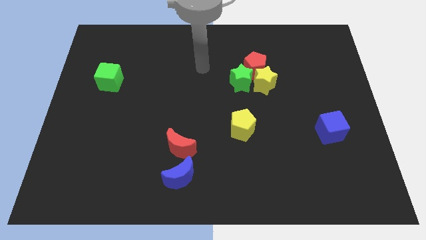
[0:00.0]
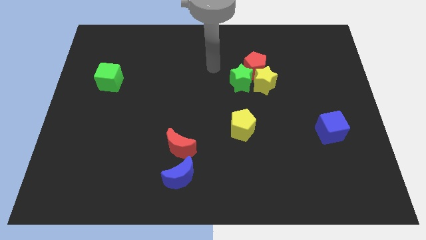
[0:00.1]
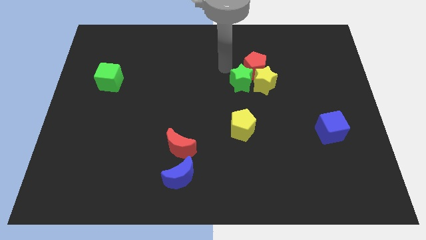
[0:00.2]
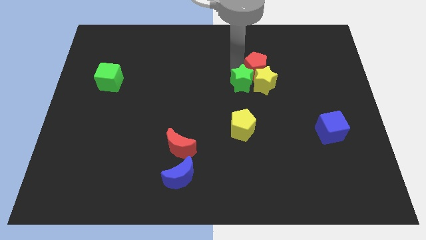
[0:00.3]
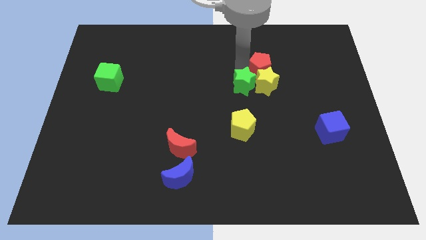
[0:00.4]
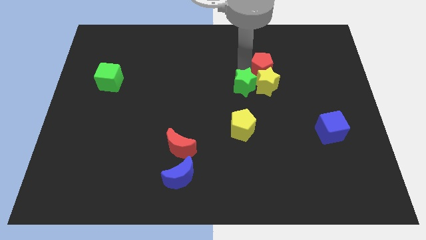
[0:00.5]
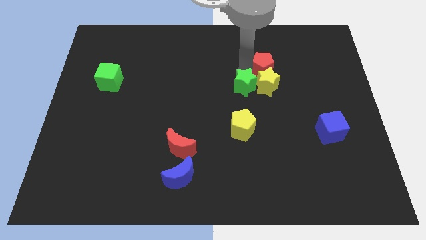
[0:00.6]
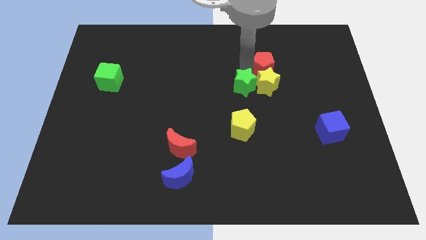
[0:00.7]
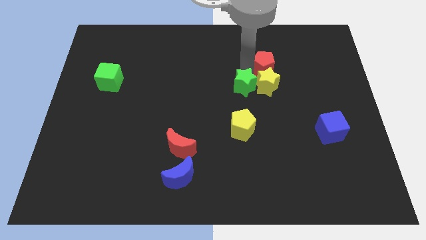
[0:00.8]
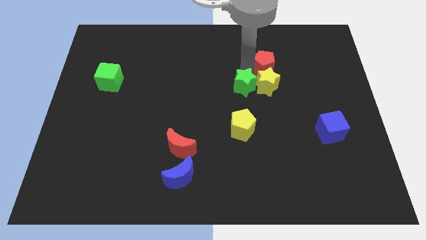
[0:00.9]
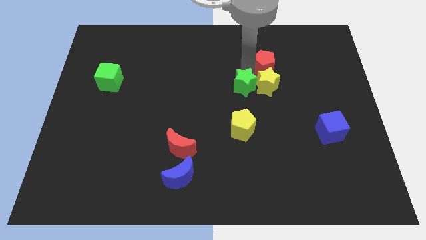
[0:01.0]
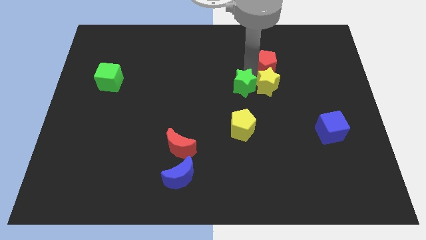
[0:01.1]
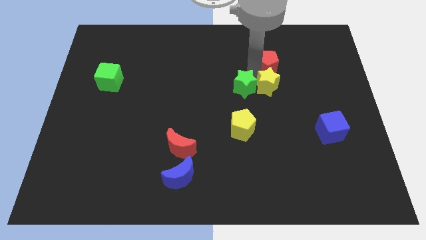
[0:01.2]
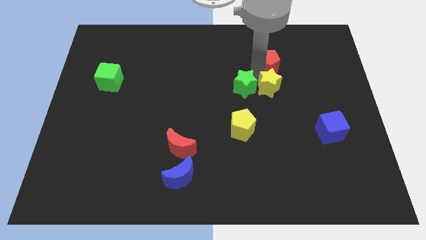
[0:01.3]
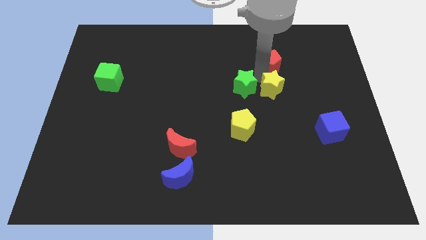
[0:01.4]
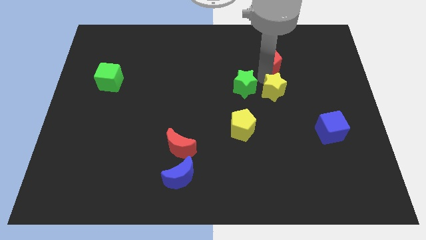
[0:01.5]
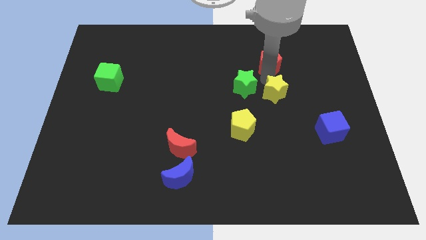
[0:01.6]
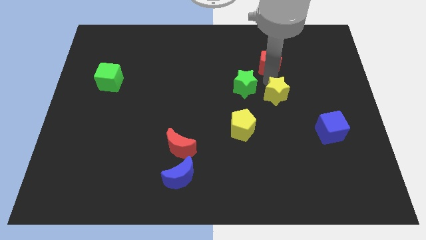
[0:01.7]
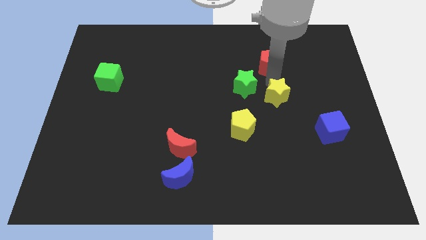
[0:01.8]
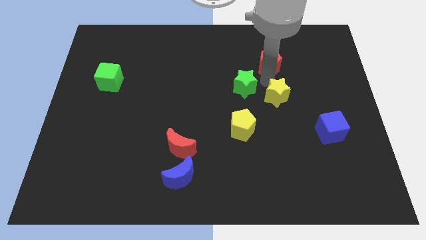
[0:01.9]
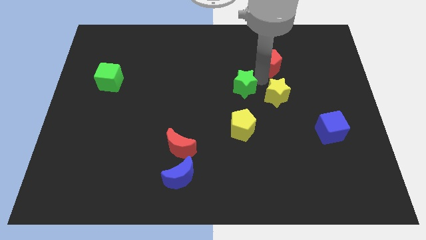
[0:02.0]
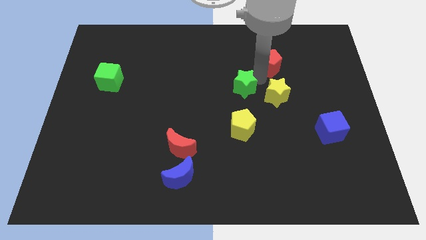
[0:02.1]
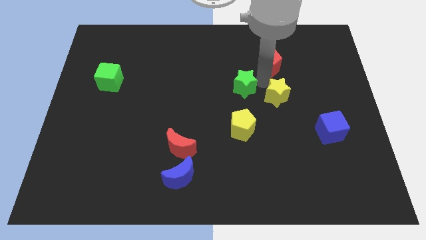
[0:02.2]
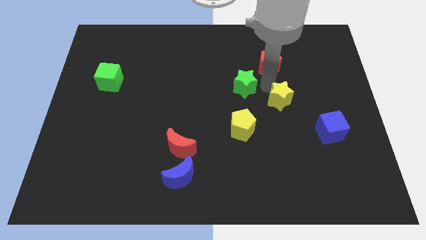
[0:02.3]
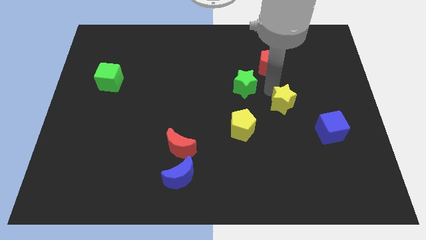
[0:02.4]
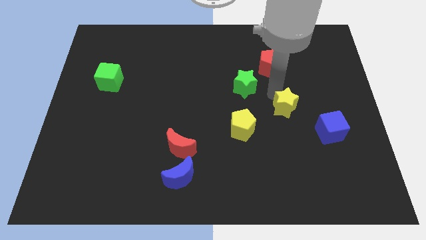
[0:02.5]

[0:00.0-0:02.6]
pull the yellow star apart from the green star and red pentagon

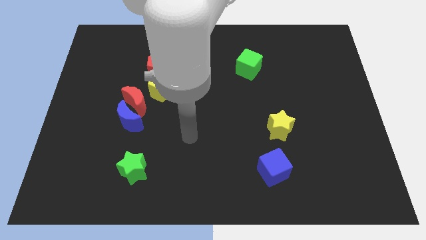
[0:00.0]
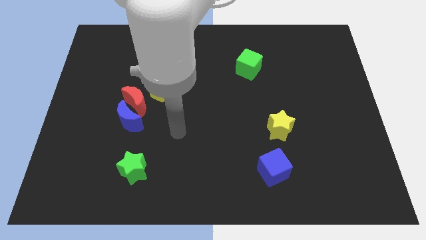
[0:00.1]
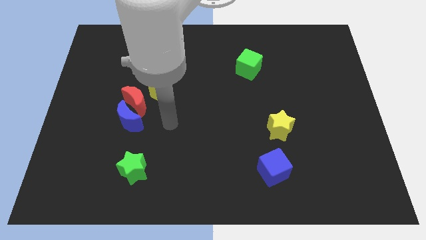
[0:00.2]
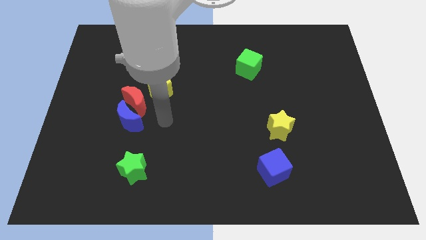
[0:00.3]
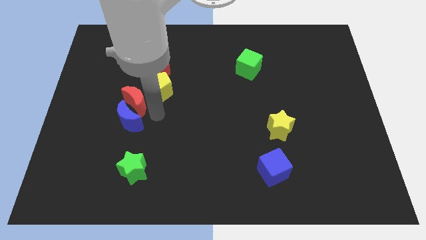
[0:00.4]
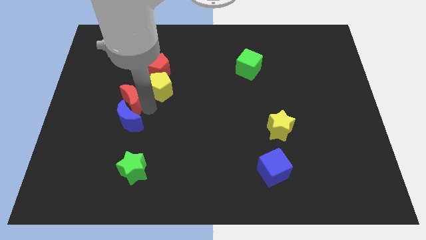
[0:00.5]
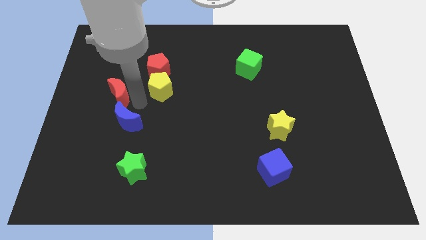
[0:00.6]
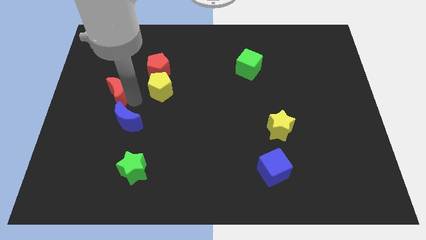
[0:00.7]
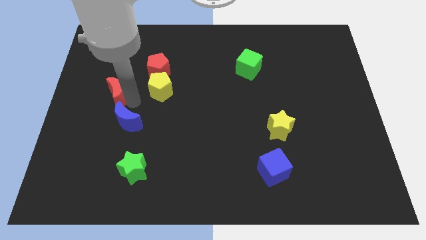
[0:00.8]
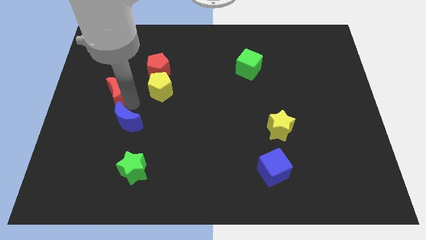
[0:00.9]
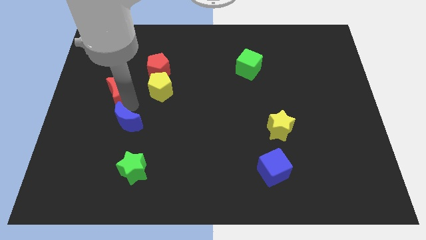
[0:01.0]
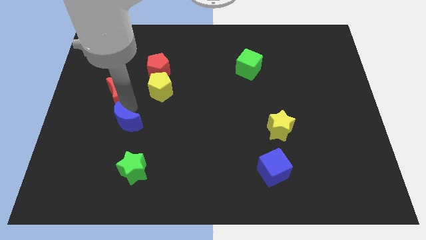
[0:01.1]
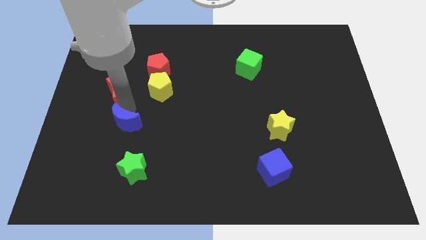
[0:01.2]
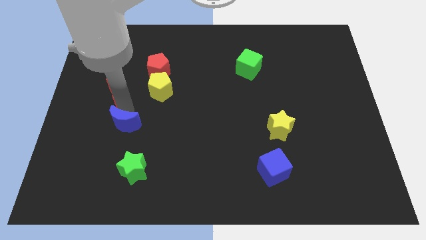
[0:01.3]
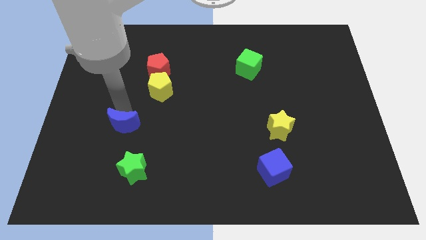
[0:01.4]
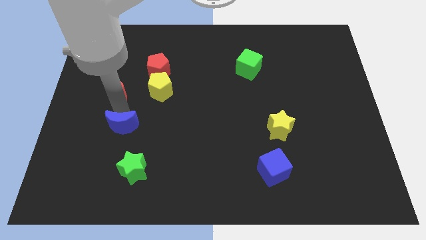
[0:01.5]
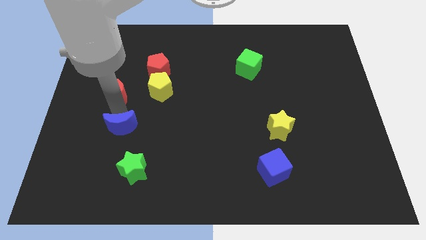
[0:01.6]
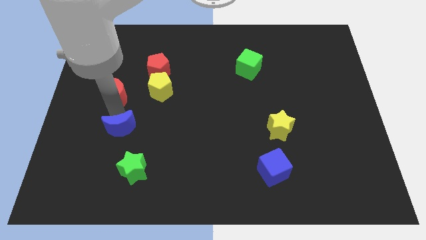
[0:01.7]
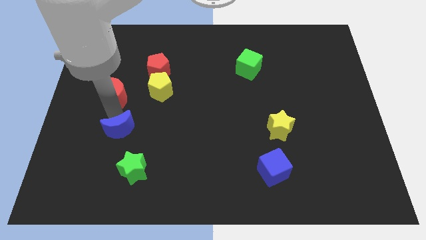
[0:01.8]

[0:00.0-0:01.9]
pull the blue moon apart from the red moon

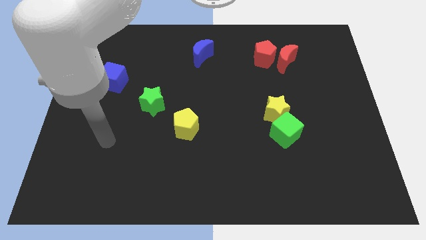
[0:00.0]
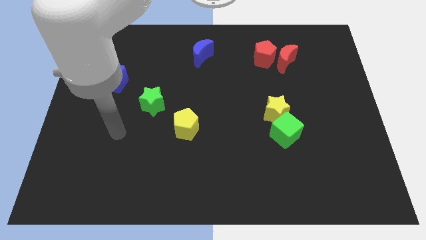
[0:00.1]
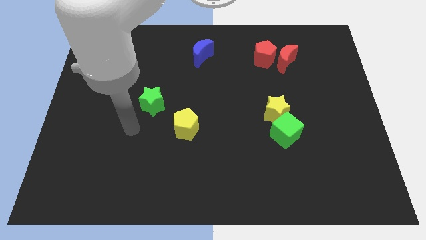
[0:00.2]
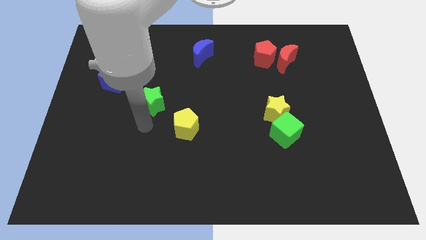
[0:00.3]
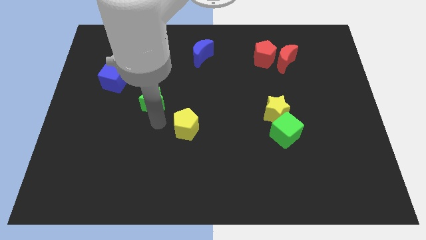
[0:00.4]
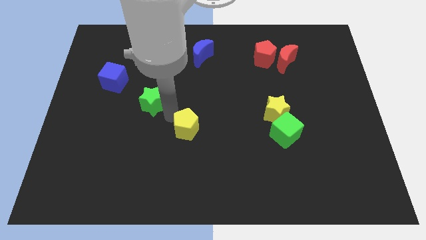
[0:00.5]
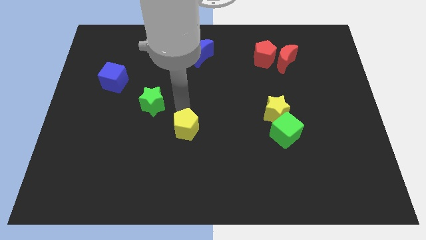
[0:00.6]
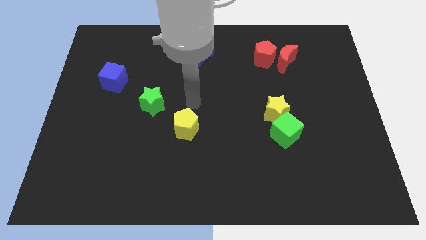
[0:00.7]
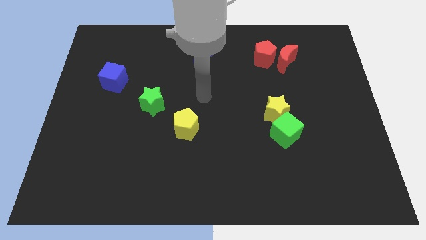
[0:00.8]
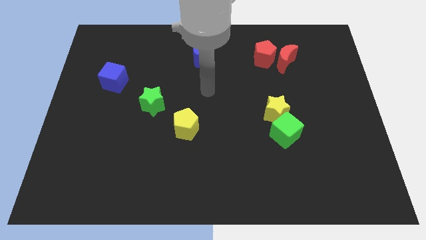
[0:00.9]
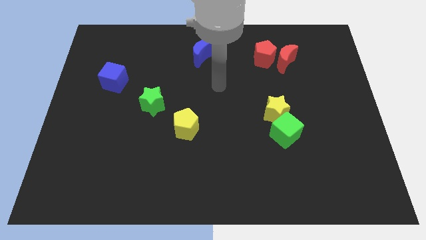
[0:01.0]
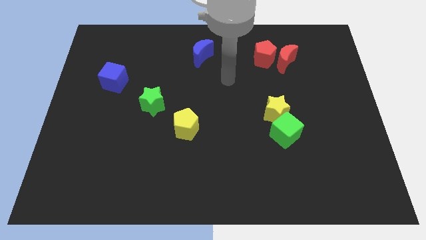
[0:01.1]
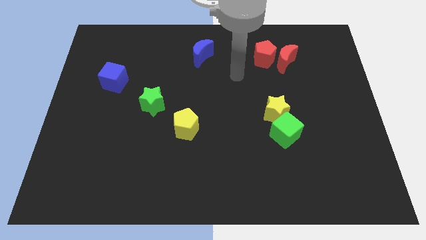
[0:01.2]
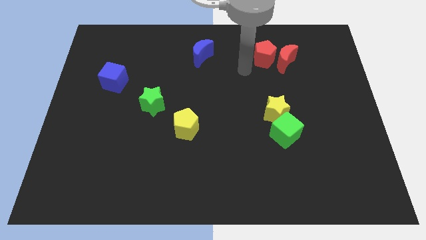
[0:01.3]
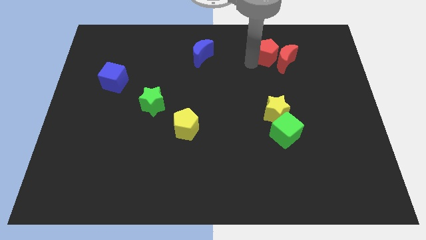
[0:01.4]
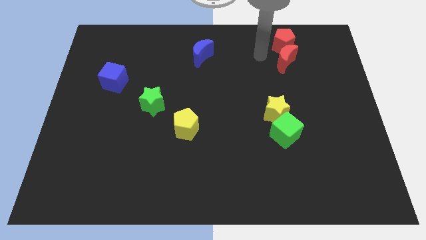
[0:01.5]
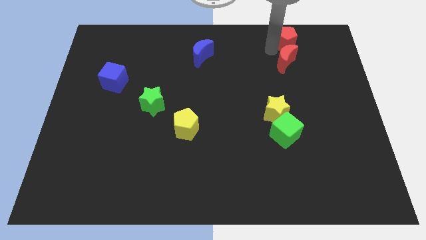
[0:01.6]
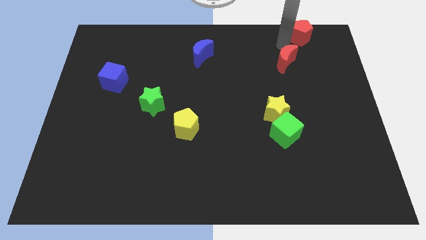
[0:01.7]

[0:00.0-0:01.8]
pull the red moon apart from the red pentagon

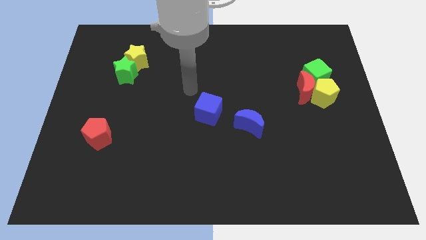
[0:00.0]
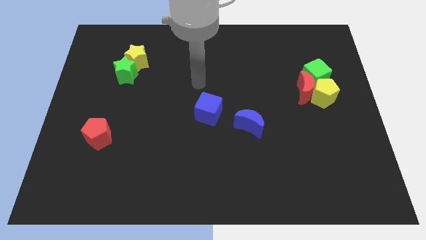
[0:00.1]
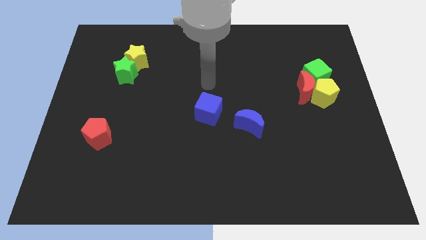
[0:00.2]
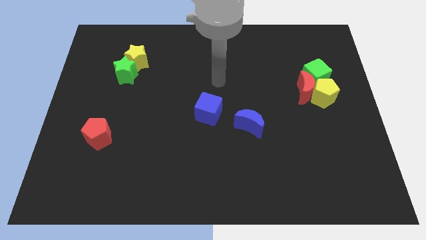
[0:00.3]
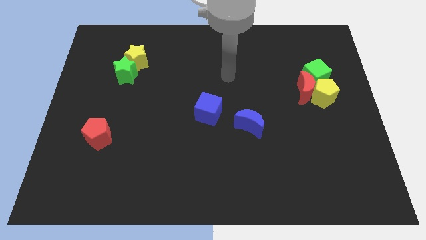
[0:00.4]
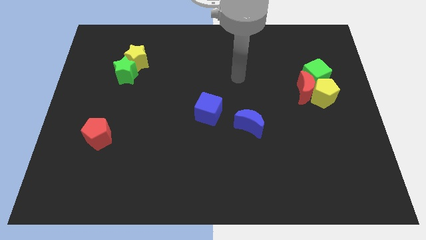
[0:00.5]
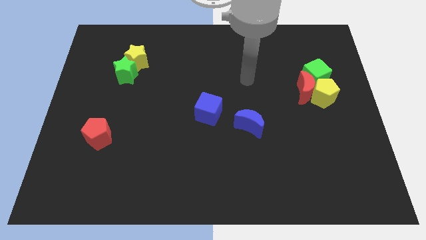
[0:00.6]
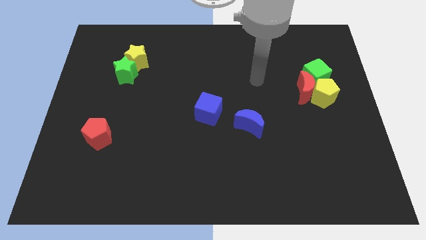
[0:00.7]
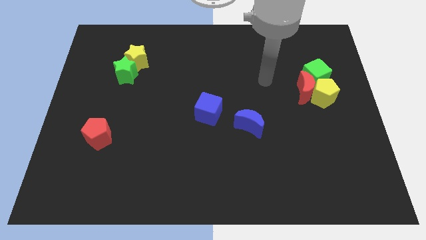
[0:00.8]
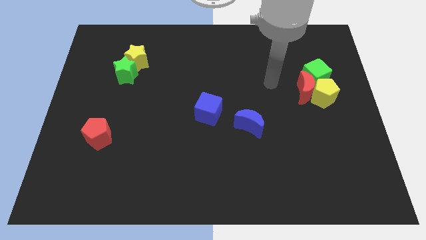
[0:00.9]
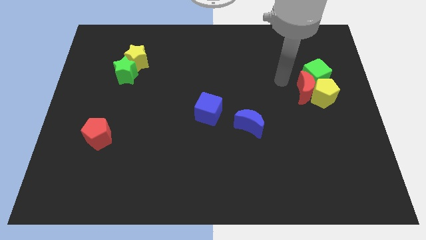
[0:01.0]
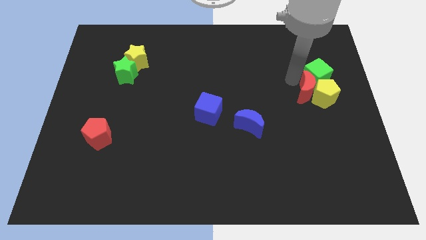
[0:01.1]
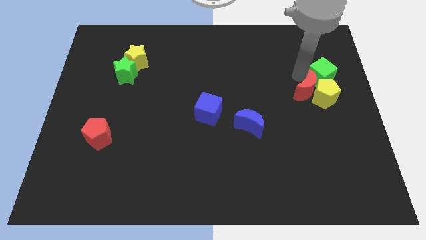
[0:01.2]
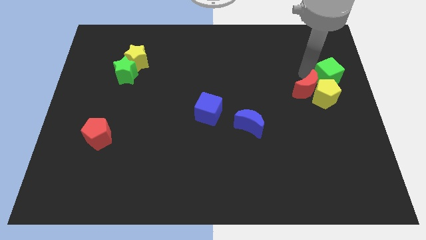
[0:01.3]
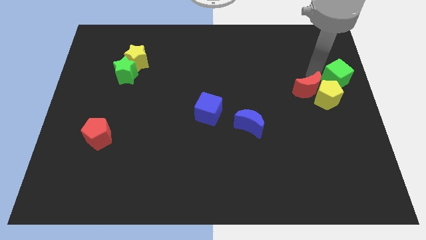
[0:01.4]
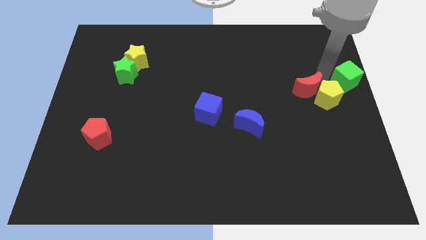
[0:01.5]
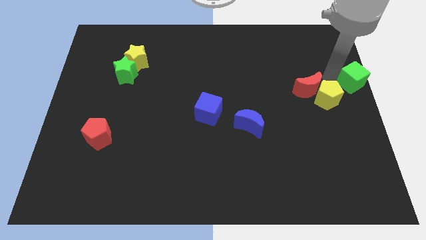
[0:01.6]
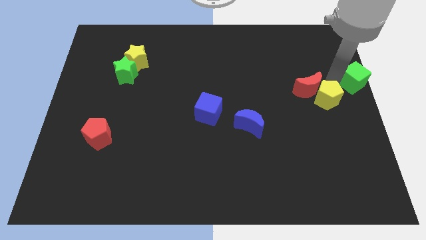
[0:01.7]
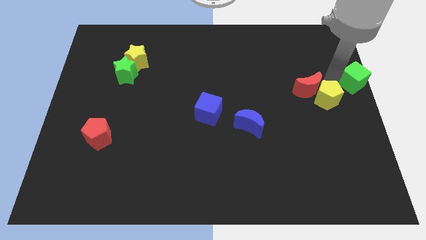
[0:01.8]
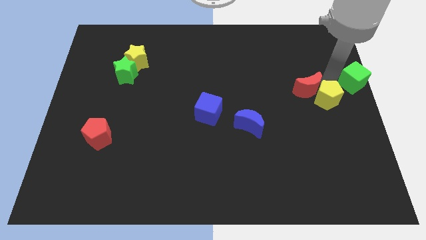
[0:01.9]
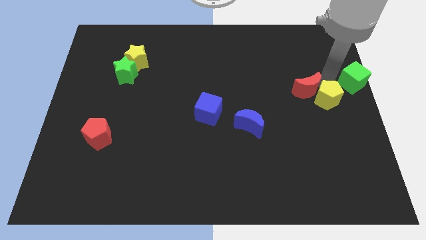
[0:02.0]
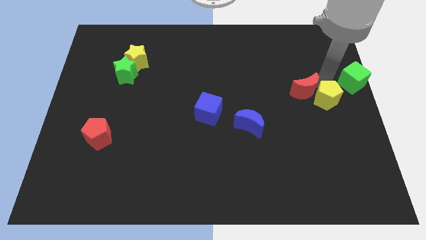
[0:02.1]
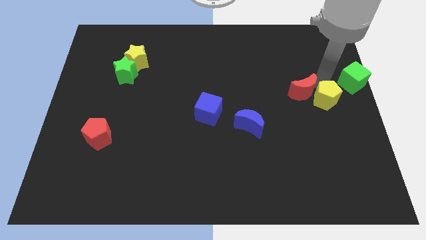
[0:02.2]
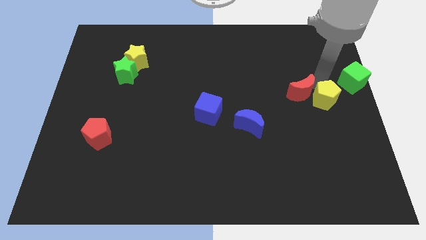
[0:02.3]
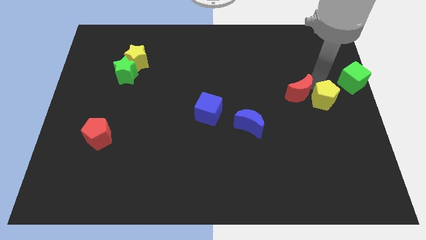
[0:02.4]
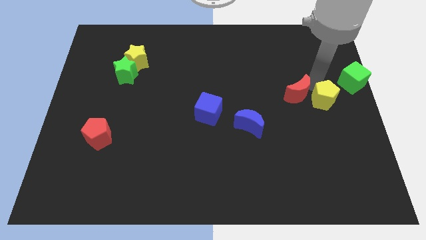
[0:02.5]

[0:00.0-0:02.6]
move the red moon away from the yellow pentagon and green cube

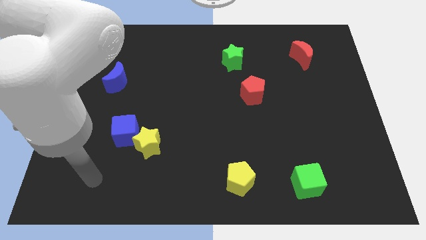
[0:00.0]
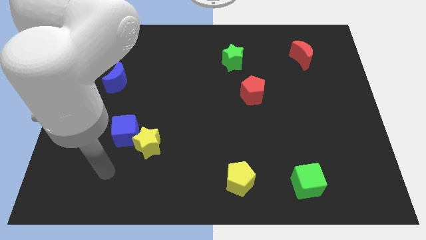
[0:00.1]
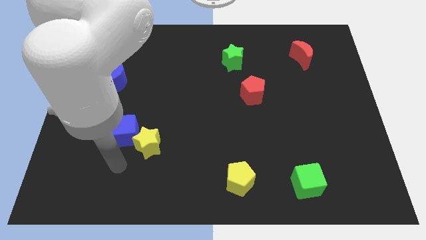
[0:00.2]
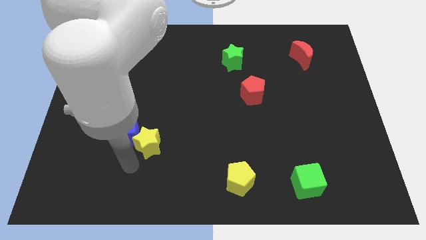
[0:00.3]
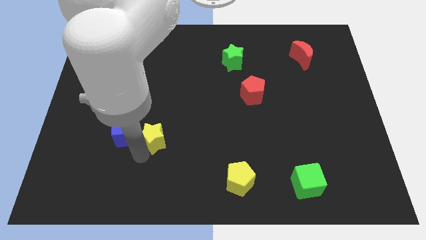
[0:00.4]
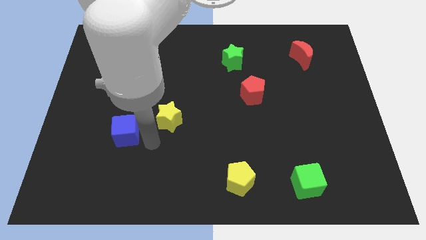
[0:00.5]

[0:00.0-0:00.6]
separate the blue cube from the yellow star

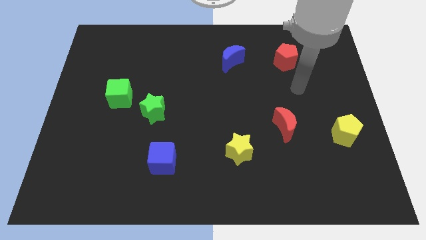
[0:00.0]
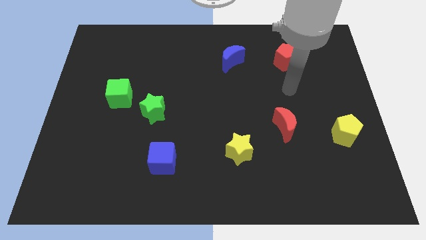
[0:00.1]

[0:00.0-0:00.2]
separate the green cube from the green star
